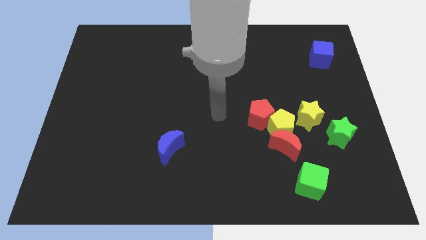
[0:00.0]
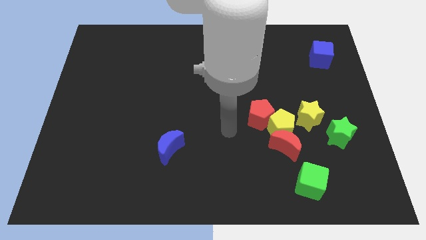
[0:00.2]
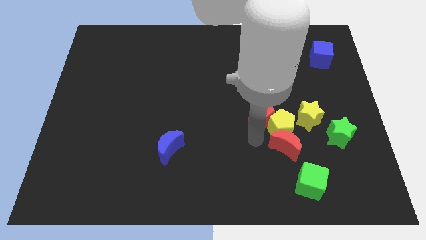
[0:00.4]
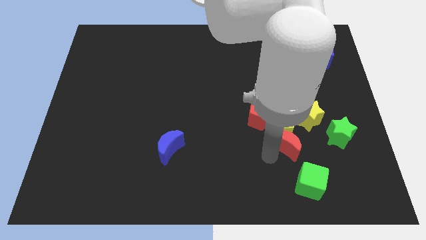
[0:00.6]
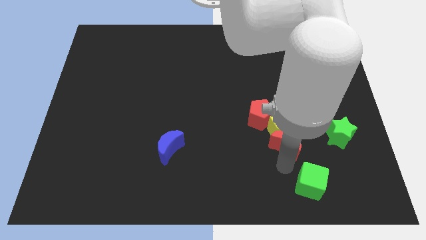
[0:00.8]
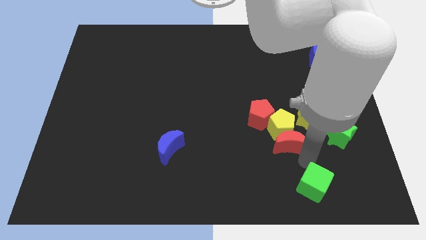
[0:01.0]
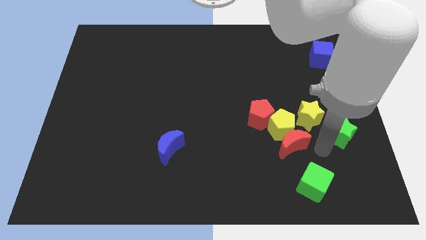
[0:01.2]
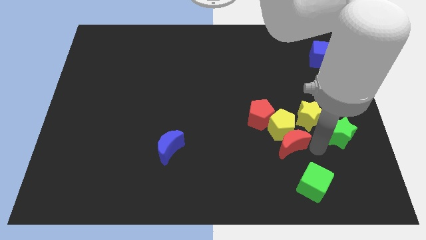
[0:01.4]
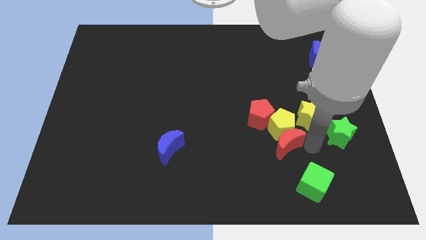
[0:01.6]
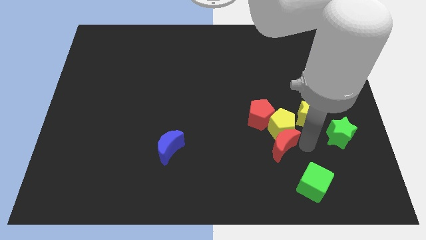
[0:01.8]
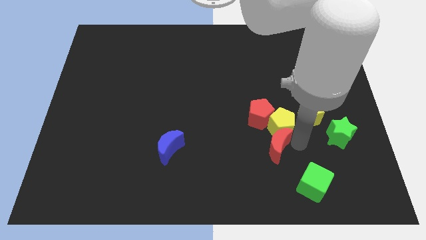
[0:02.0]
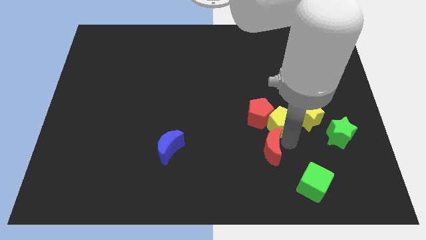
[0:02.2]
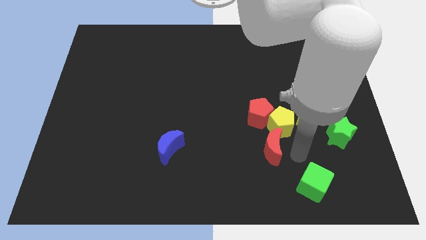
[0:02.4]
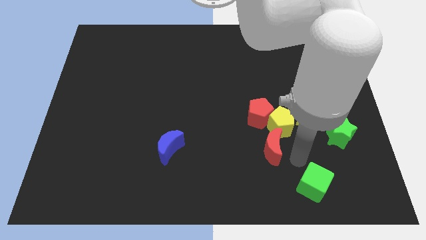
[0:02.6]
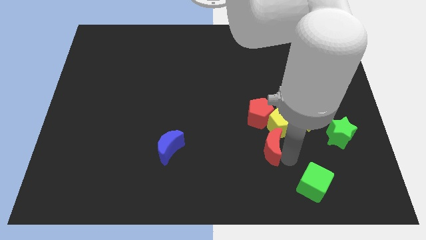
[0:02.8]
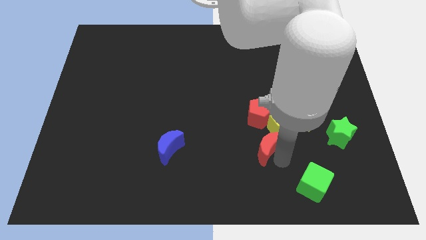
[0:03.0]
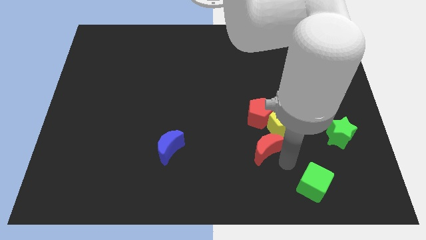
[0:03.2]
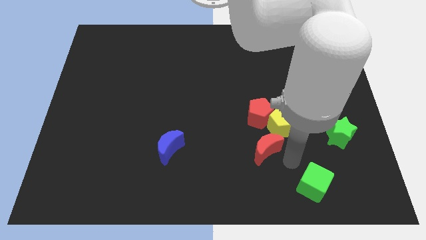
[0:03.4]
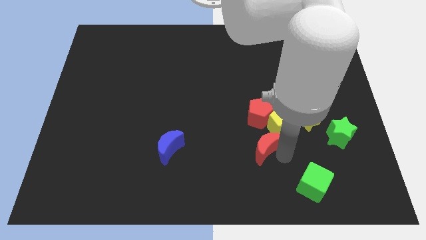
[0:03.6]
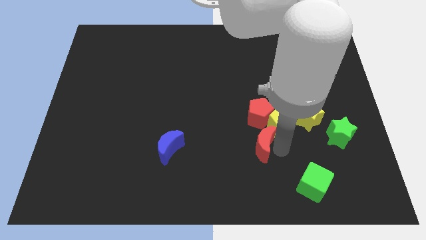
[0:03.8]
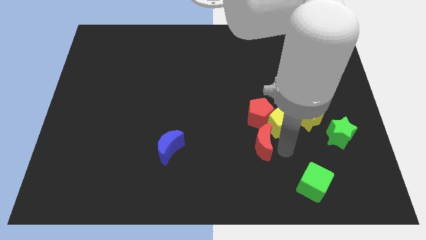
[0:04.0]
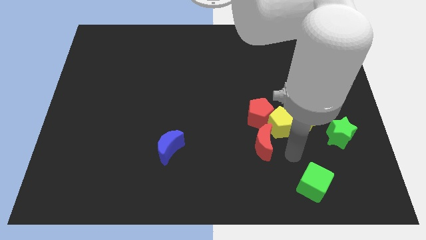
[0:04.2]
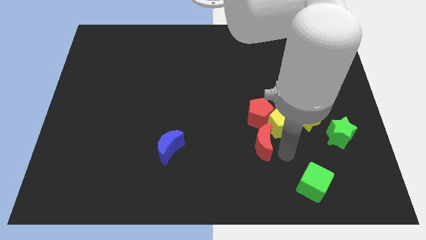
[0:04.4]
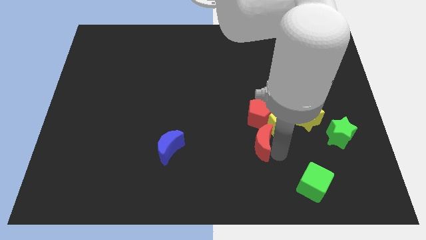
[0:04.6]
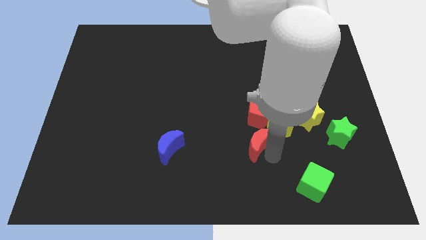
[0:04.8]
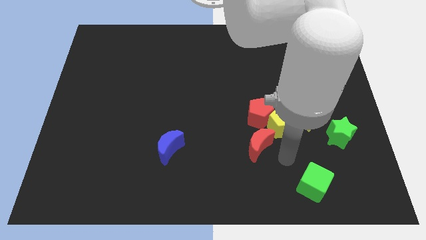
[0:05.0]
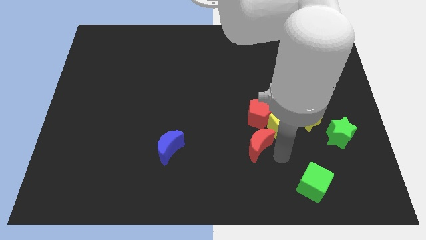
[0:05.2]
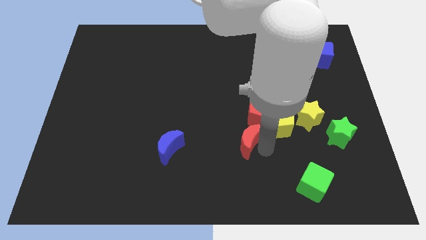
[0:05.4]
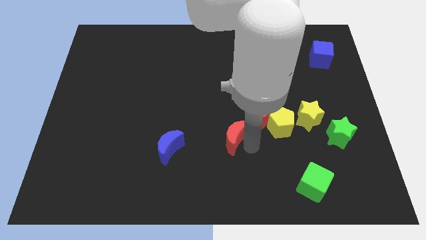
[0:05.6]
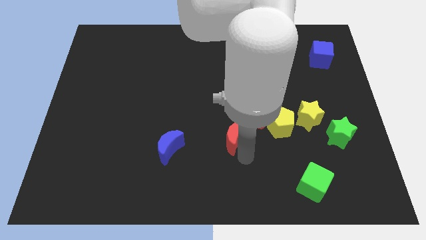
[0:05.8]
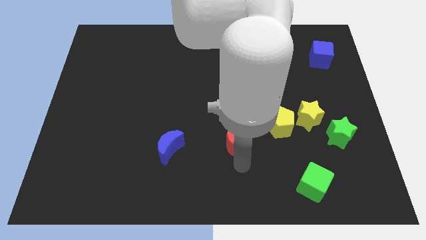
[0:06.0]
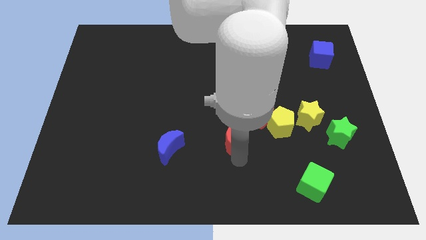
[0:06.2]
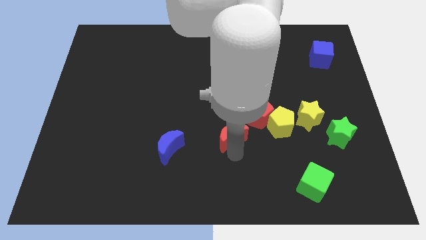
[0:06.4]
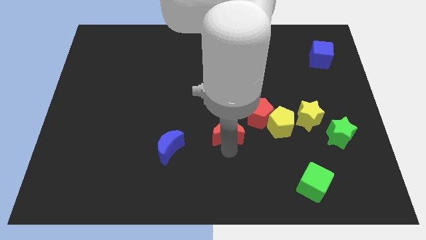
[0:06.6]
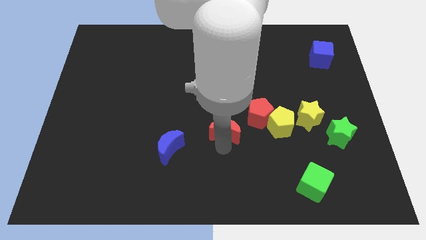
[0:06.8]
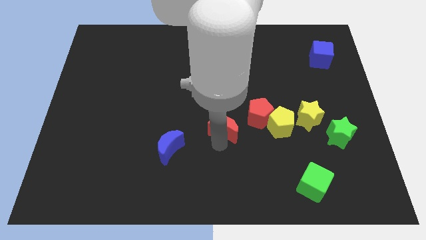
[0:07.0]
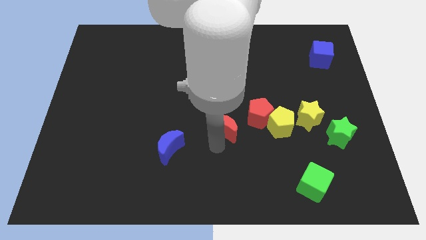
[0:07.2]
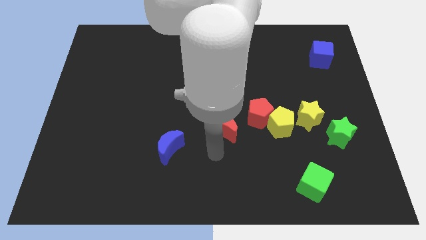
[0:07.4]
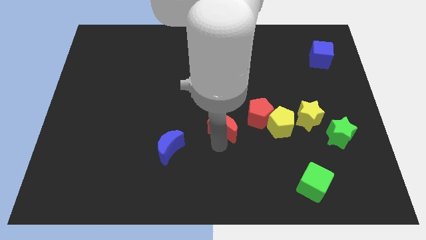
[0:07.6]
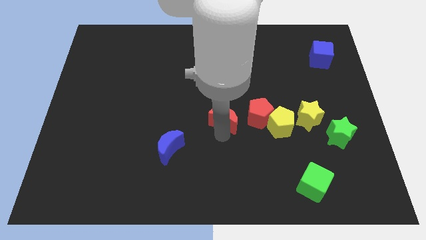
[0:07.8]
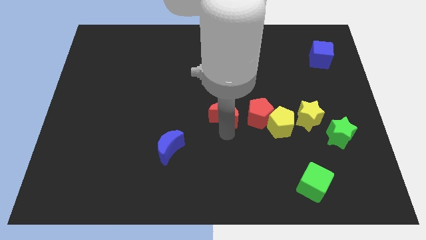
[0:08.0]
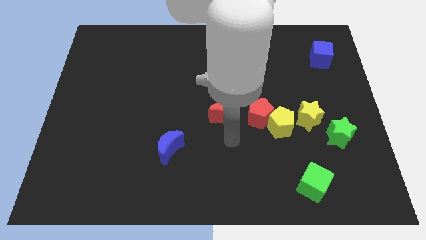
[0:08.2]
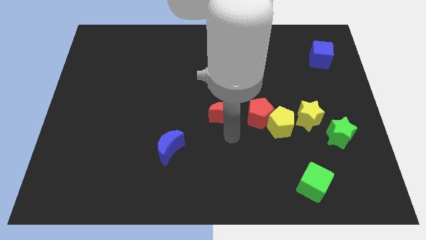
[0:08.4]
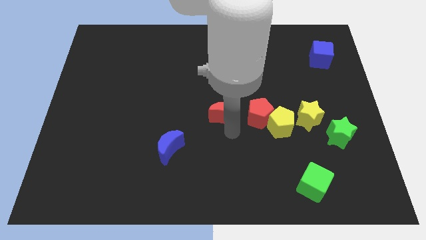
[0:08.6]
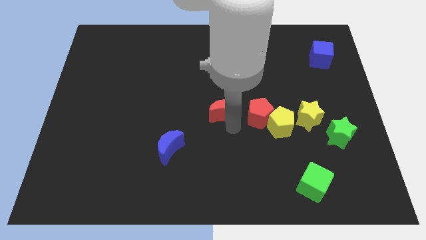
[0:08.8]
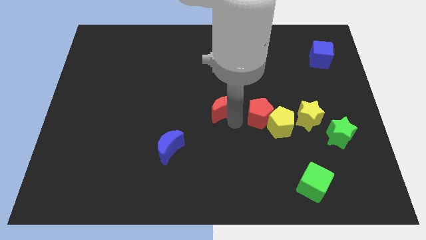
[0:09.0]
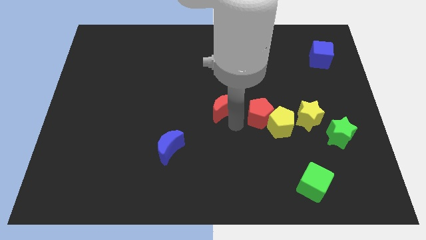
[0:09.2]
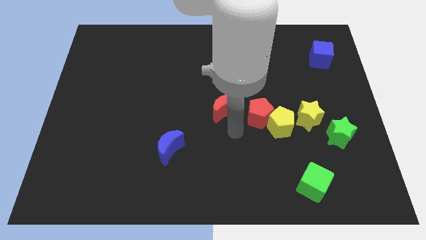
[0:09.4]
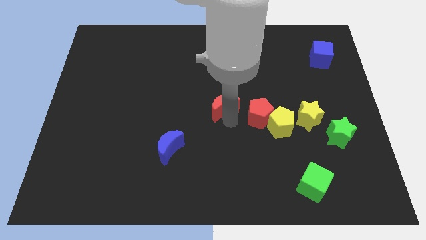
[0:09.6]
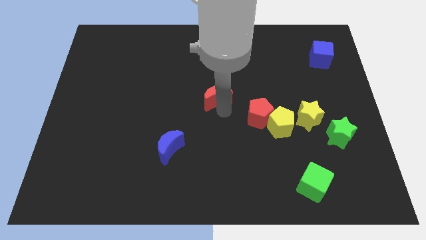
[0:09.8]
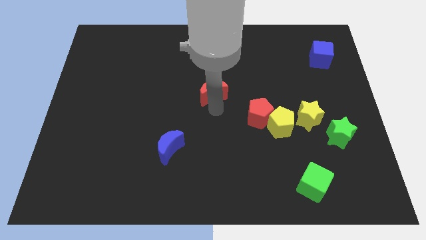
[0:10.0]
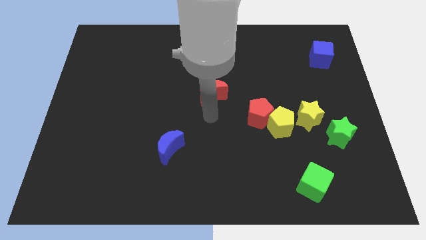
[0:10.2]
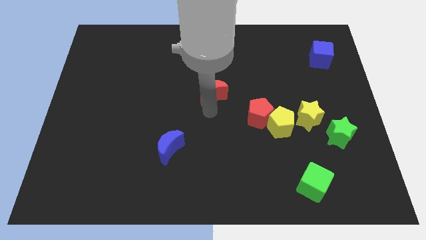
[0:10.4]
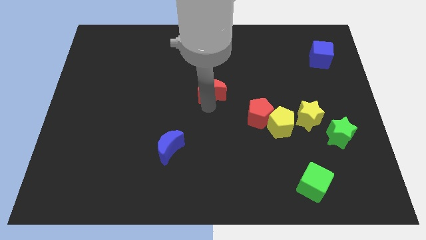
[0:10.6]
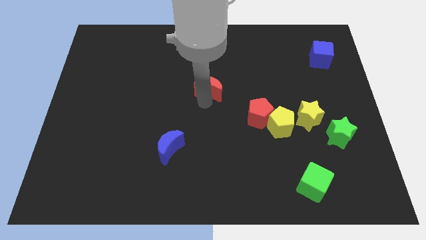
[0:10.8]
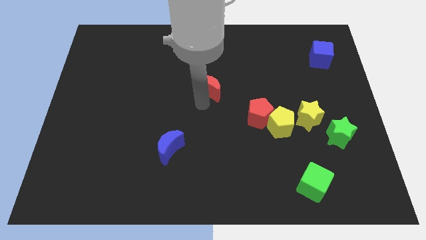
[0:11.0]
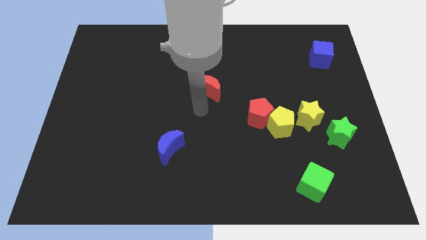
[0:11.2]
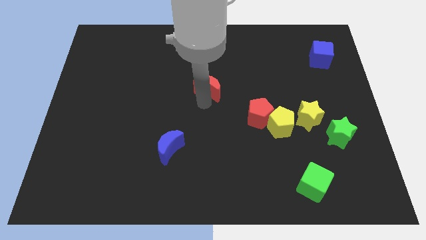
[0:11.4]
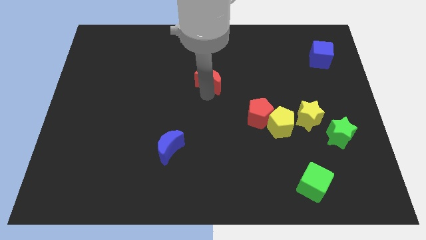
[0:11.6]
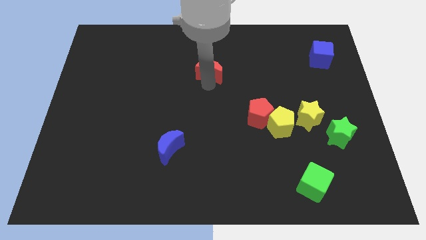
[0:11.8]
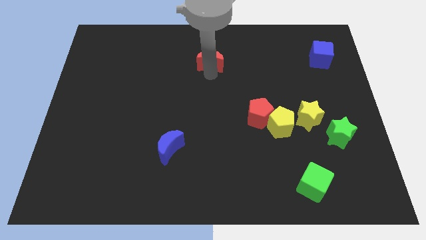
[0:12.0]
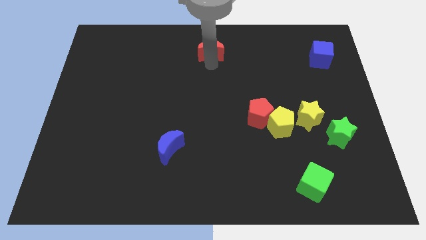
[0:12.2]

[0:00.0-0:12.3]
push the red moon to the top

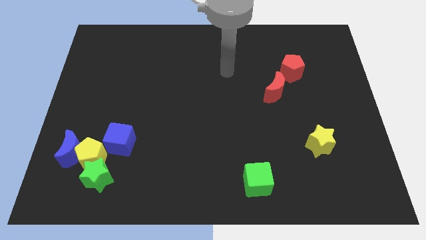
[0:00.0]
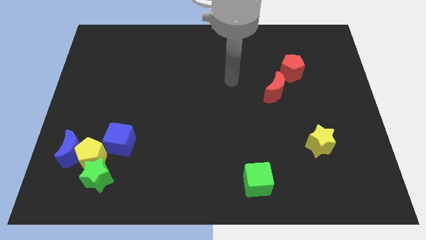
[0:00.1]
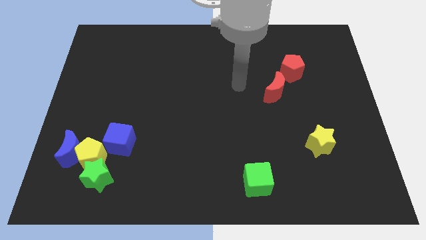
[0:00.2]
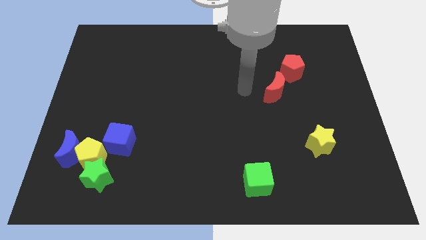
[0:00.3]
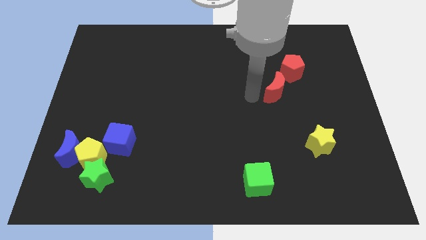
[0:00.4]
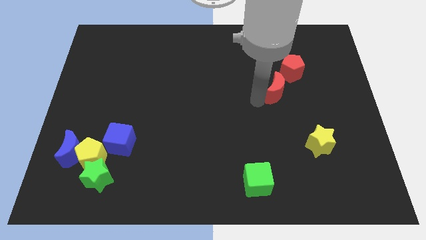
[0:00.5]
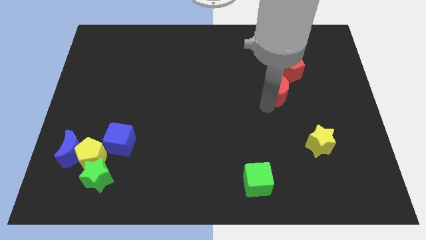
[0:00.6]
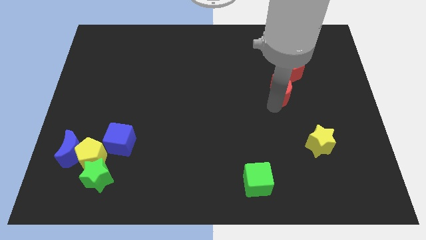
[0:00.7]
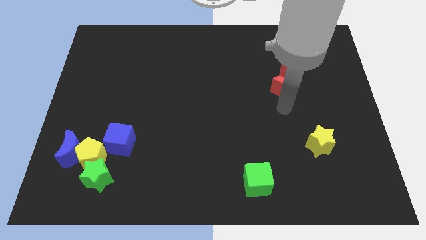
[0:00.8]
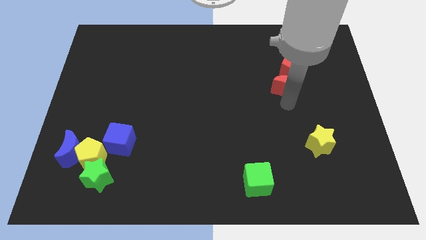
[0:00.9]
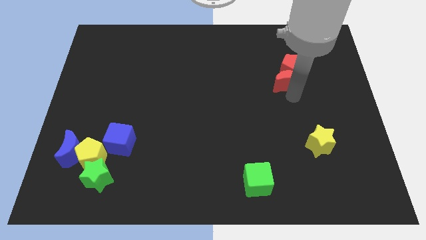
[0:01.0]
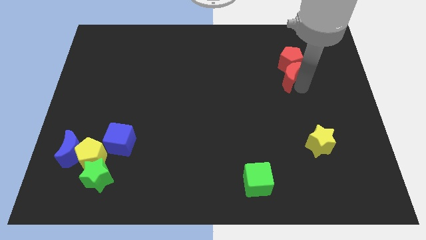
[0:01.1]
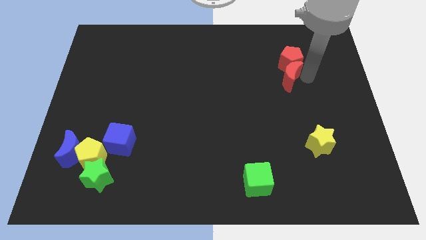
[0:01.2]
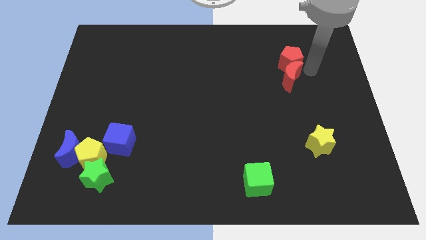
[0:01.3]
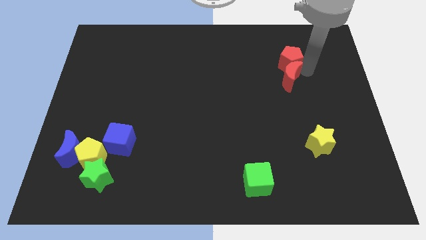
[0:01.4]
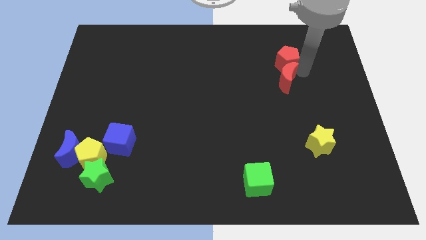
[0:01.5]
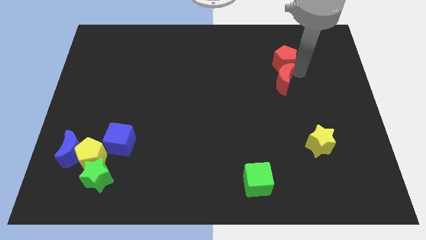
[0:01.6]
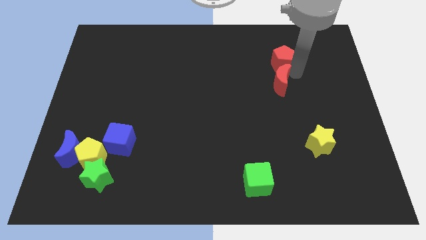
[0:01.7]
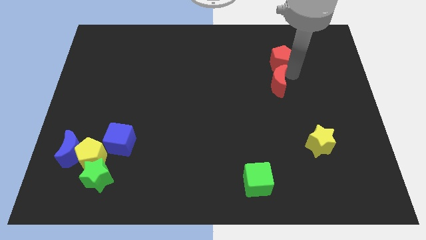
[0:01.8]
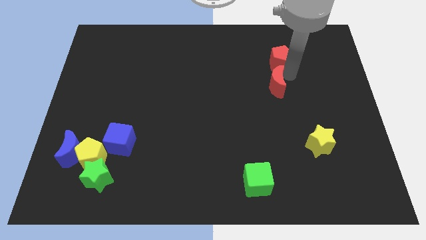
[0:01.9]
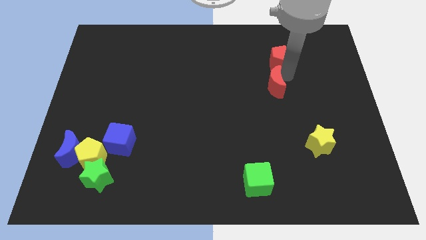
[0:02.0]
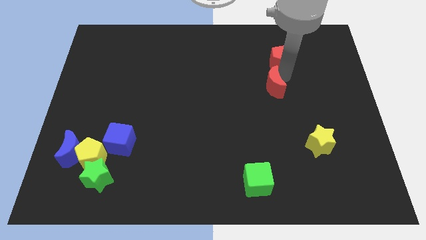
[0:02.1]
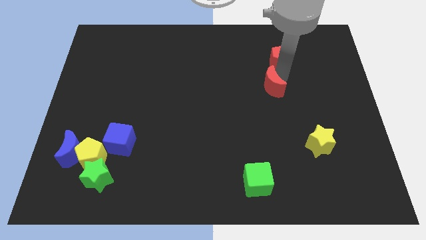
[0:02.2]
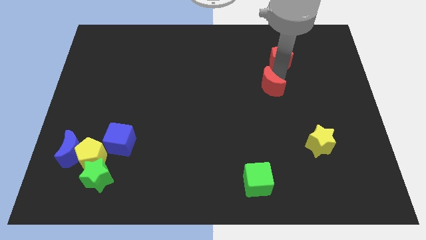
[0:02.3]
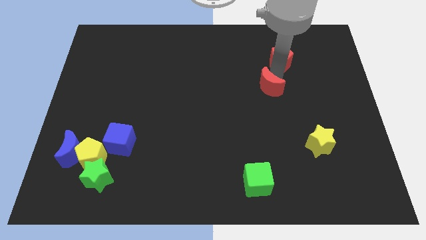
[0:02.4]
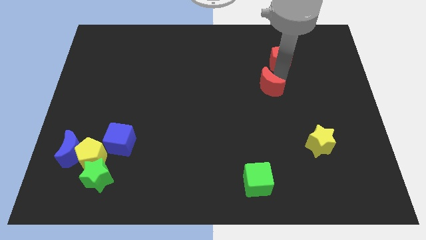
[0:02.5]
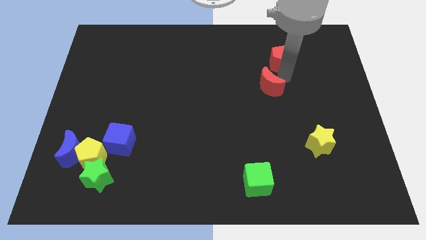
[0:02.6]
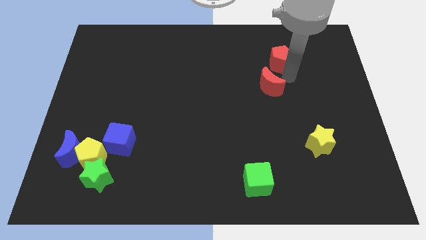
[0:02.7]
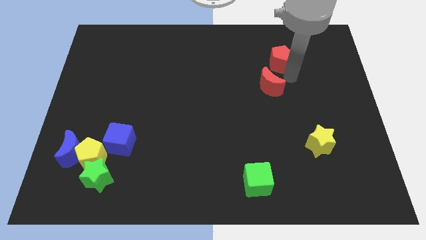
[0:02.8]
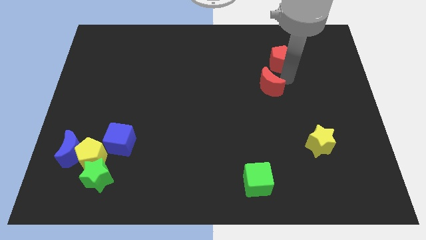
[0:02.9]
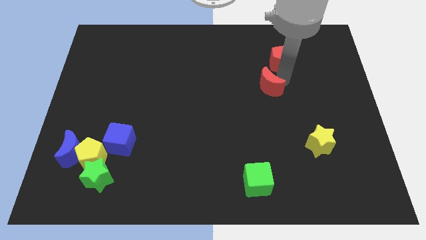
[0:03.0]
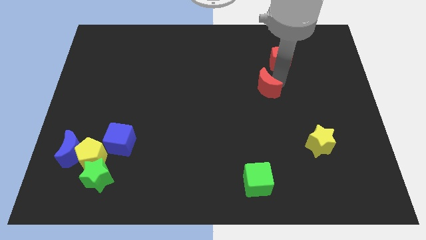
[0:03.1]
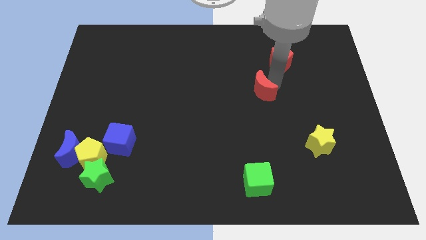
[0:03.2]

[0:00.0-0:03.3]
put the red moon to the middle
